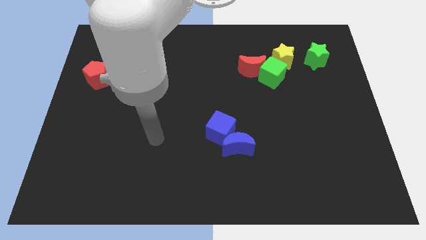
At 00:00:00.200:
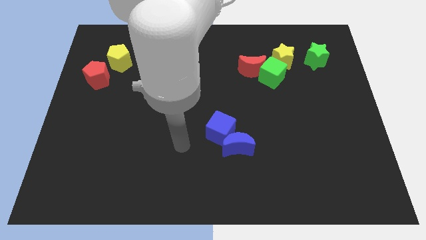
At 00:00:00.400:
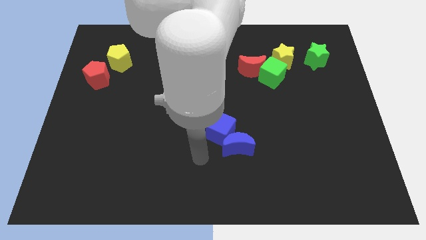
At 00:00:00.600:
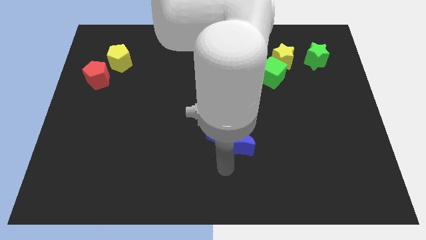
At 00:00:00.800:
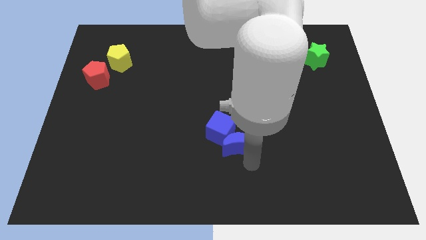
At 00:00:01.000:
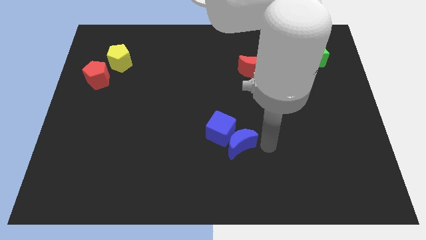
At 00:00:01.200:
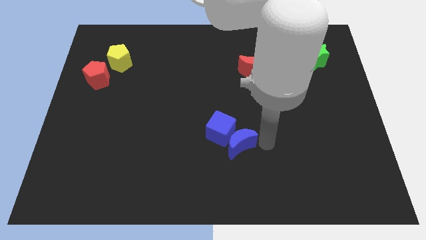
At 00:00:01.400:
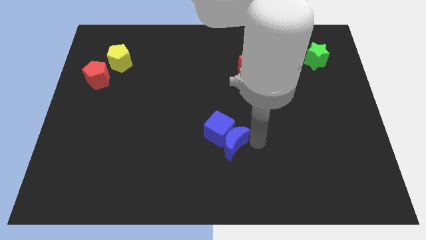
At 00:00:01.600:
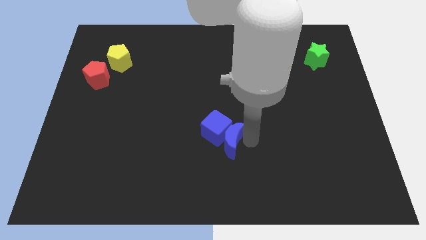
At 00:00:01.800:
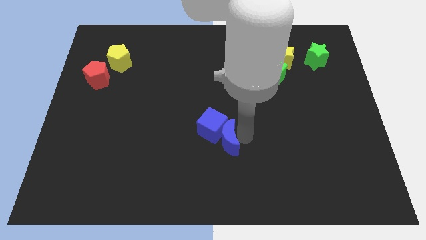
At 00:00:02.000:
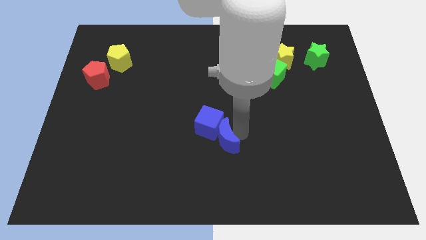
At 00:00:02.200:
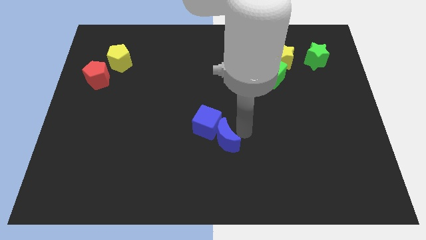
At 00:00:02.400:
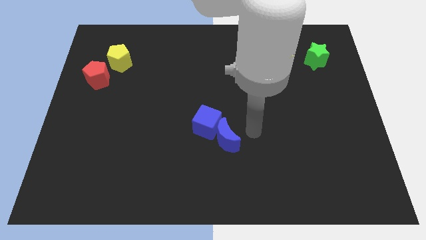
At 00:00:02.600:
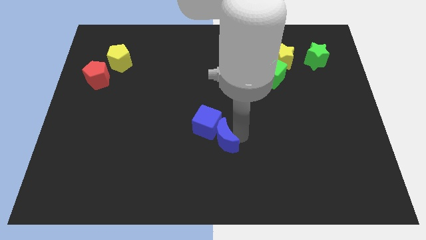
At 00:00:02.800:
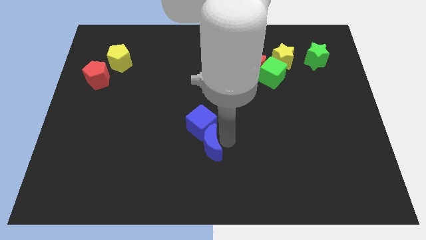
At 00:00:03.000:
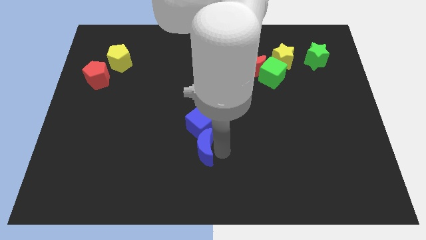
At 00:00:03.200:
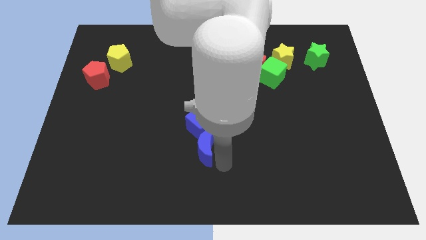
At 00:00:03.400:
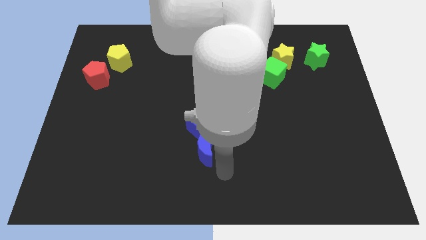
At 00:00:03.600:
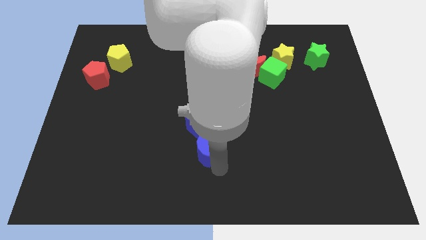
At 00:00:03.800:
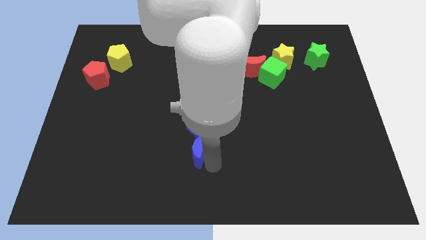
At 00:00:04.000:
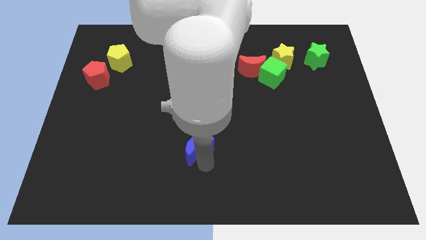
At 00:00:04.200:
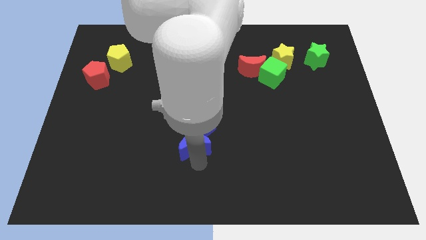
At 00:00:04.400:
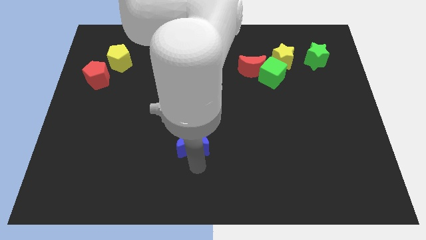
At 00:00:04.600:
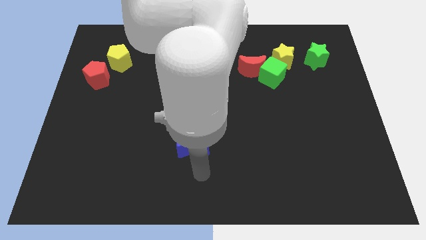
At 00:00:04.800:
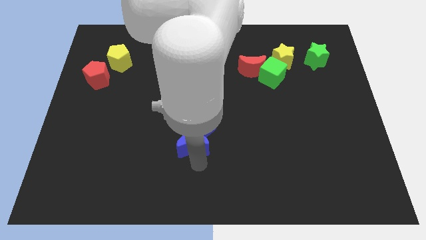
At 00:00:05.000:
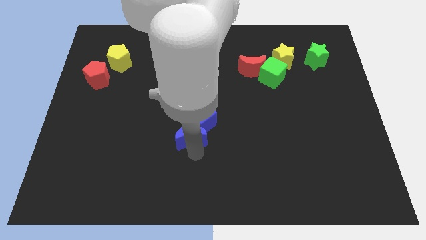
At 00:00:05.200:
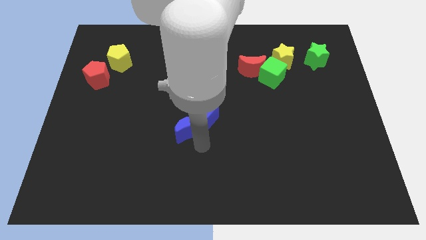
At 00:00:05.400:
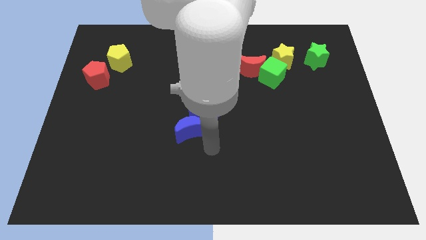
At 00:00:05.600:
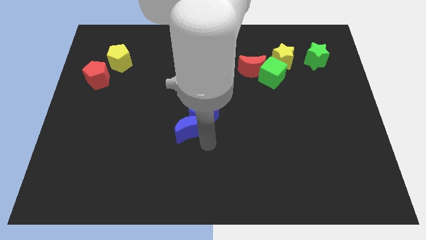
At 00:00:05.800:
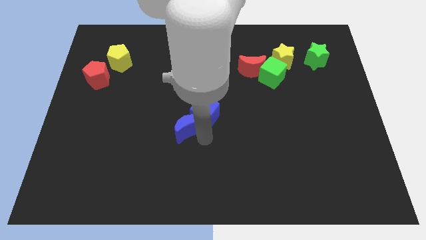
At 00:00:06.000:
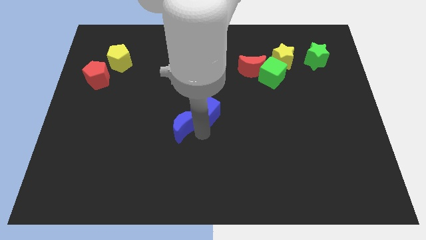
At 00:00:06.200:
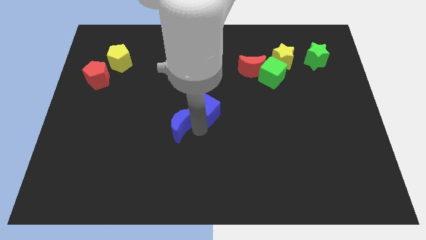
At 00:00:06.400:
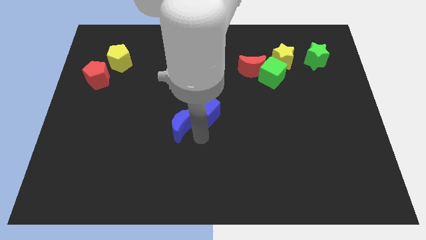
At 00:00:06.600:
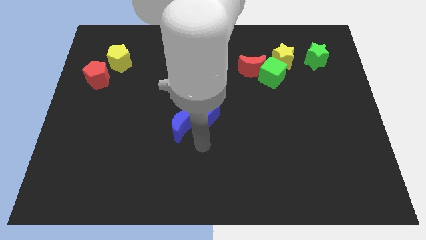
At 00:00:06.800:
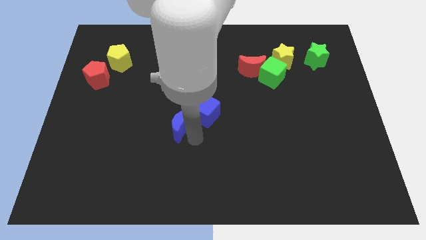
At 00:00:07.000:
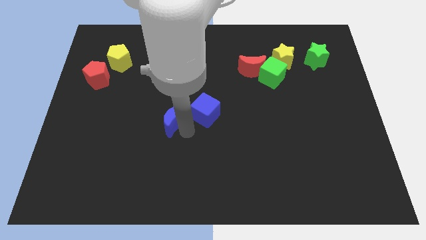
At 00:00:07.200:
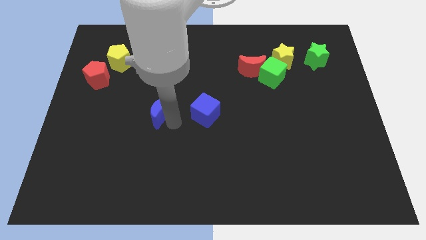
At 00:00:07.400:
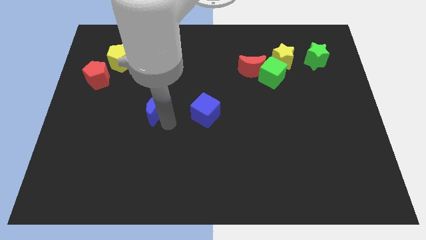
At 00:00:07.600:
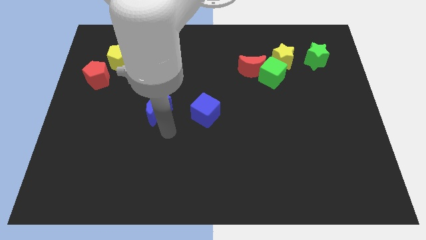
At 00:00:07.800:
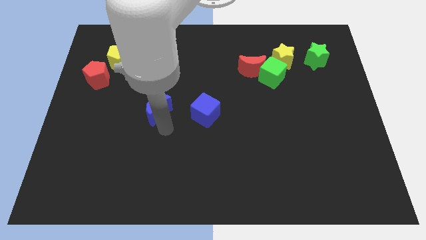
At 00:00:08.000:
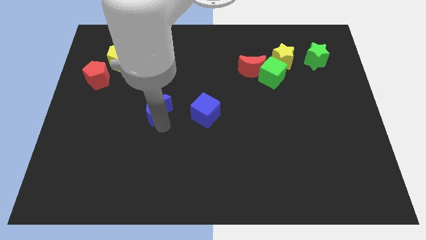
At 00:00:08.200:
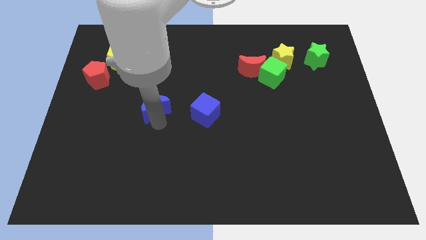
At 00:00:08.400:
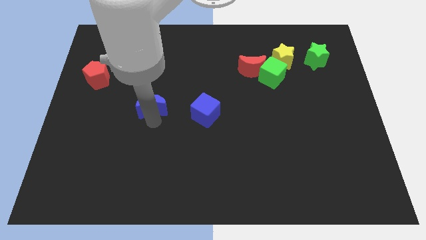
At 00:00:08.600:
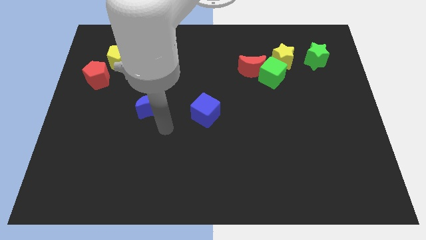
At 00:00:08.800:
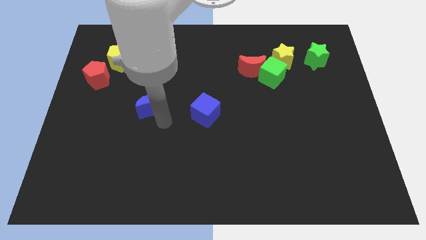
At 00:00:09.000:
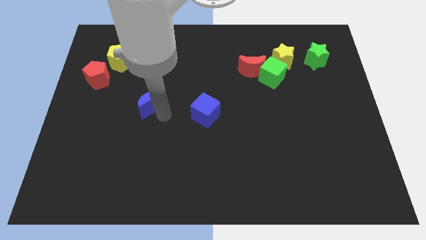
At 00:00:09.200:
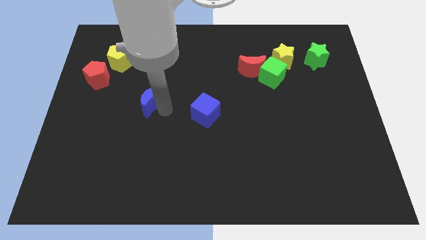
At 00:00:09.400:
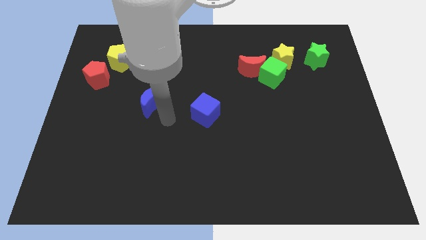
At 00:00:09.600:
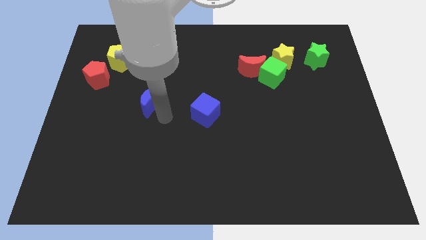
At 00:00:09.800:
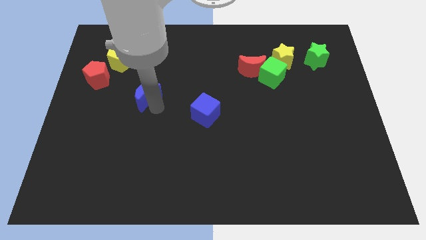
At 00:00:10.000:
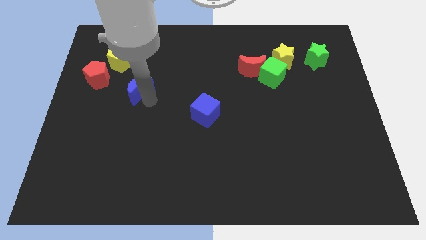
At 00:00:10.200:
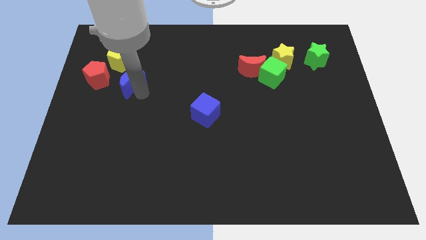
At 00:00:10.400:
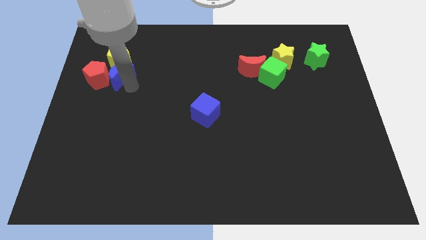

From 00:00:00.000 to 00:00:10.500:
slide the blue moon to the yellow pentagon

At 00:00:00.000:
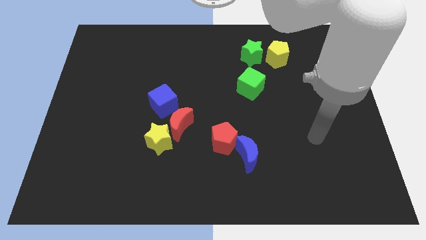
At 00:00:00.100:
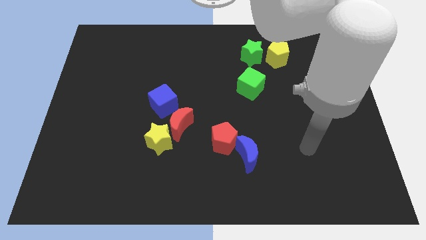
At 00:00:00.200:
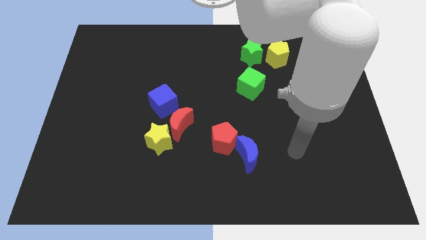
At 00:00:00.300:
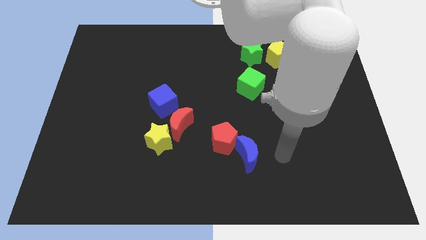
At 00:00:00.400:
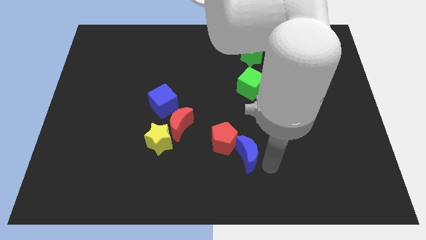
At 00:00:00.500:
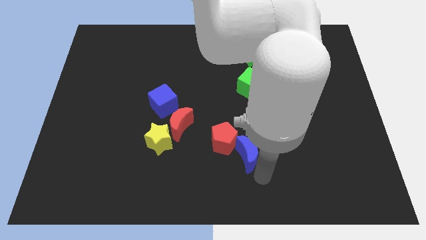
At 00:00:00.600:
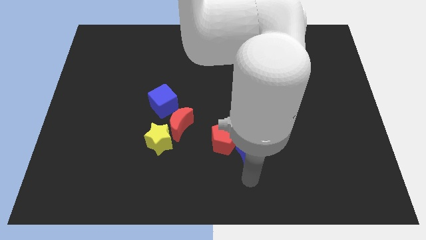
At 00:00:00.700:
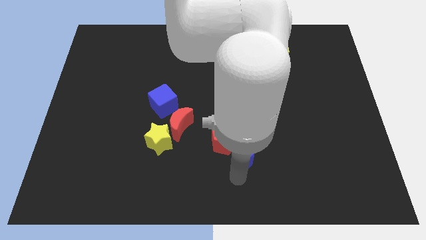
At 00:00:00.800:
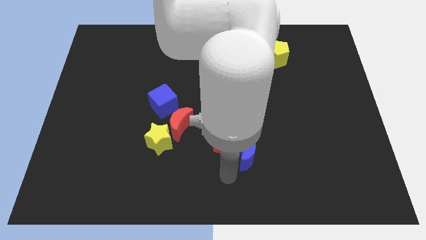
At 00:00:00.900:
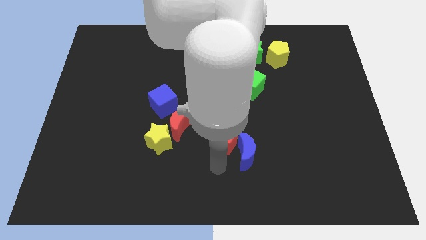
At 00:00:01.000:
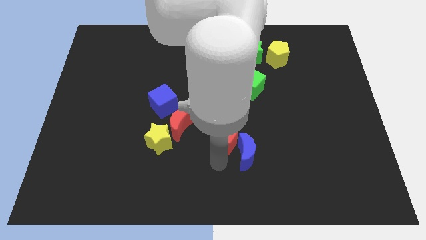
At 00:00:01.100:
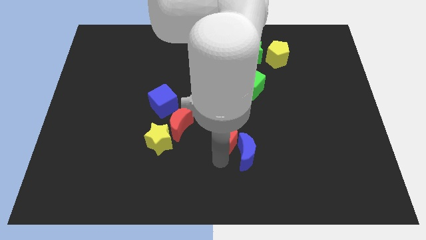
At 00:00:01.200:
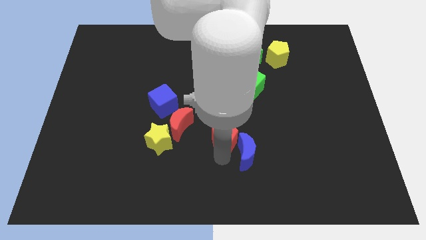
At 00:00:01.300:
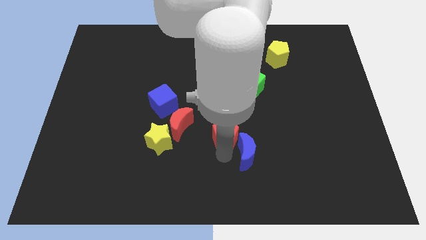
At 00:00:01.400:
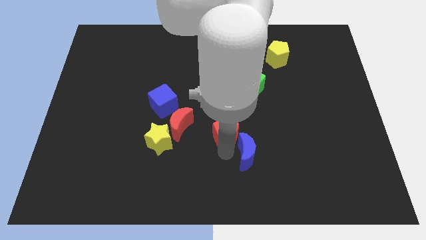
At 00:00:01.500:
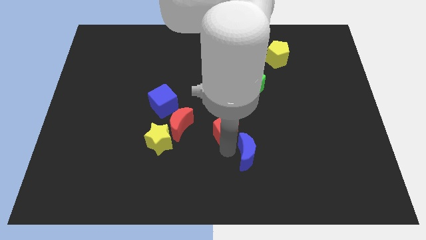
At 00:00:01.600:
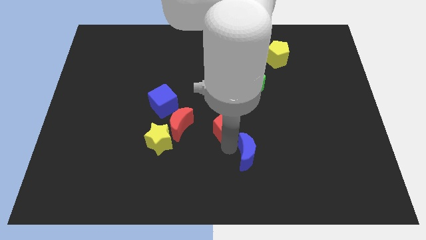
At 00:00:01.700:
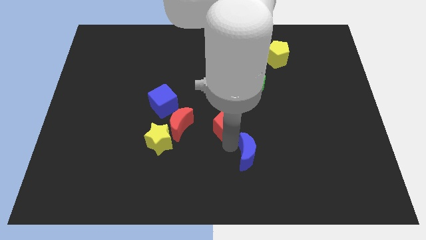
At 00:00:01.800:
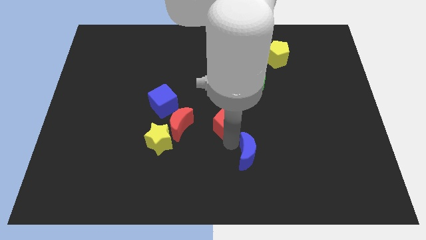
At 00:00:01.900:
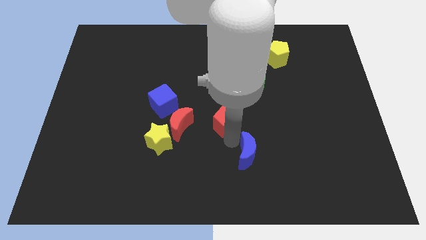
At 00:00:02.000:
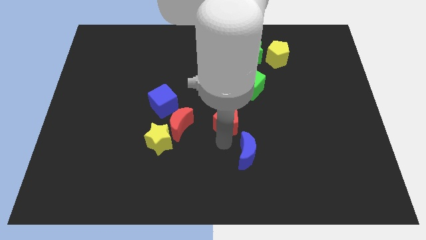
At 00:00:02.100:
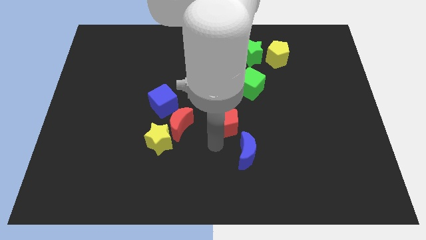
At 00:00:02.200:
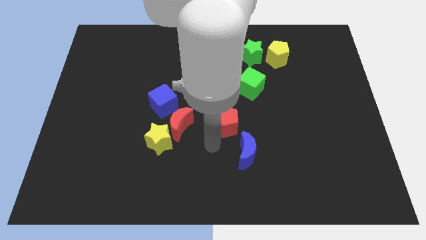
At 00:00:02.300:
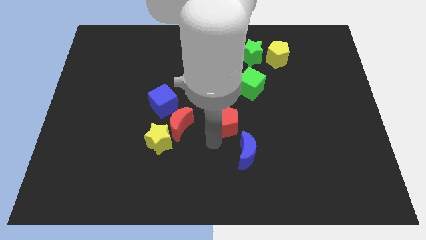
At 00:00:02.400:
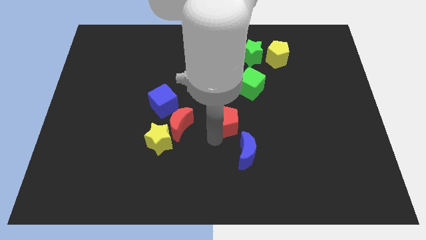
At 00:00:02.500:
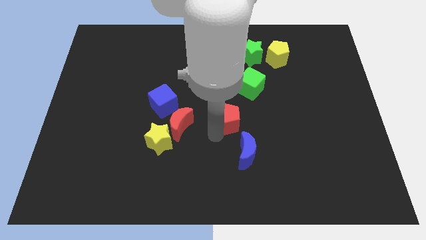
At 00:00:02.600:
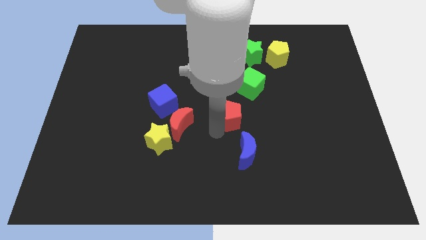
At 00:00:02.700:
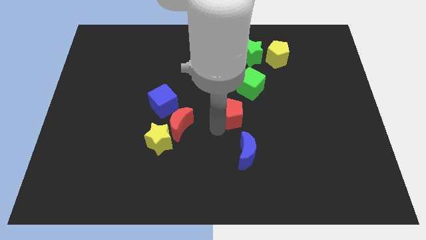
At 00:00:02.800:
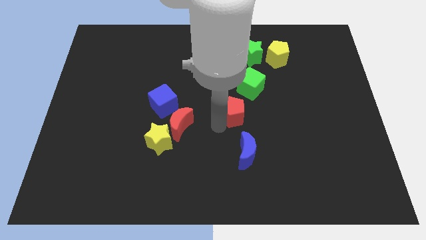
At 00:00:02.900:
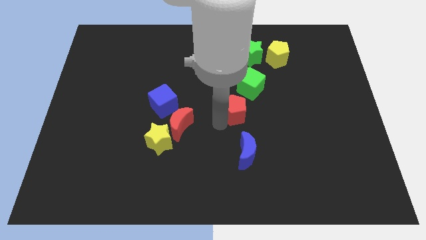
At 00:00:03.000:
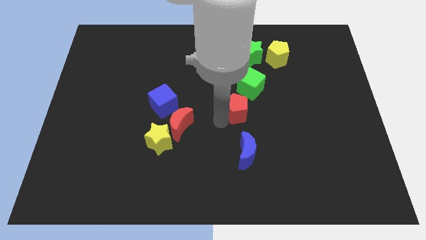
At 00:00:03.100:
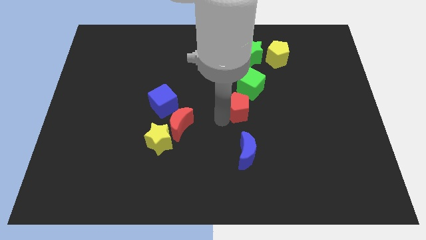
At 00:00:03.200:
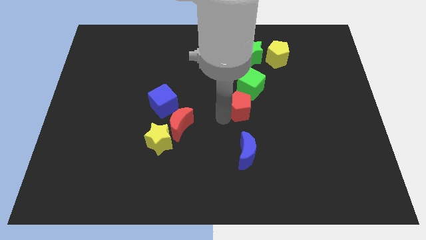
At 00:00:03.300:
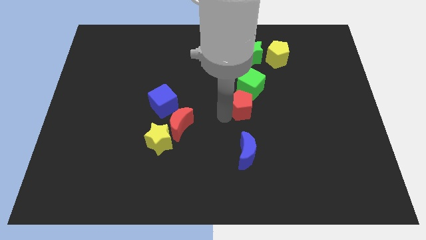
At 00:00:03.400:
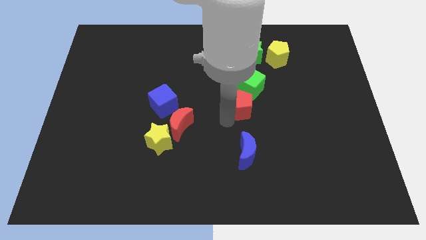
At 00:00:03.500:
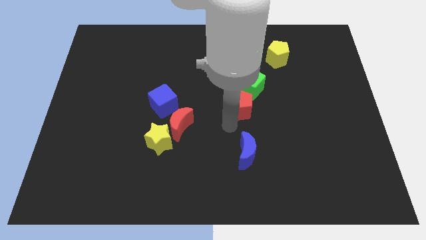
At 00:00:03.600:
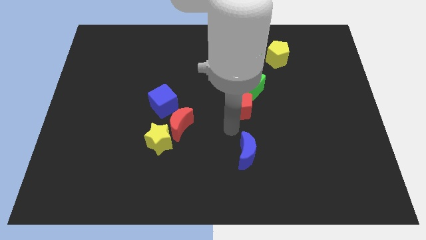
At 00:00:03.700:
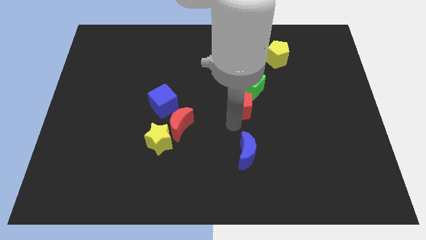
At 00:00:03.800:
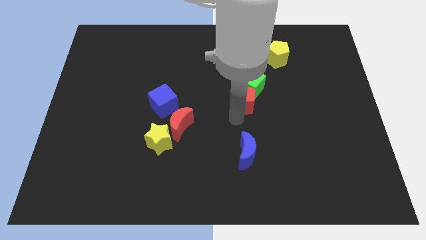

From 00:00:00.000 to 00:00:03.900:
move the red pentagon next to the green cube
